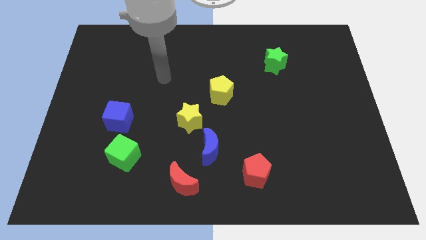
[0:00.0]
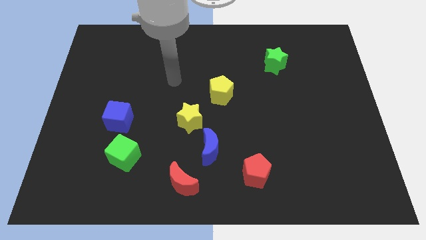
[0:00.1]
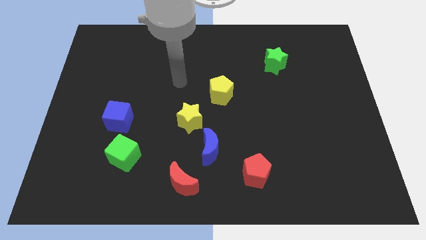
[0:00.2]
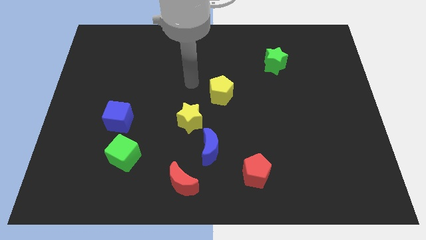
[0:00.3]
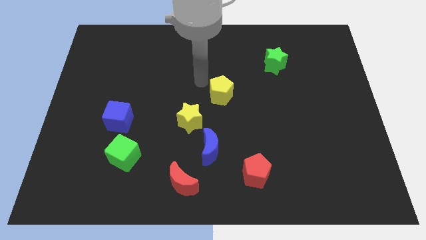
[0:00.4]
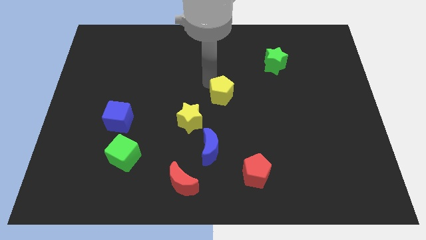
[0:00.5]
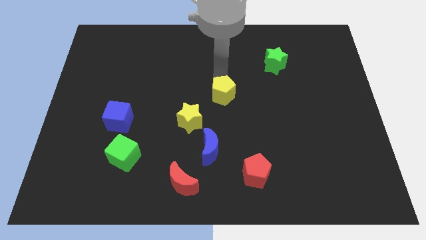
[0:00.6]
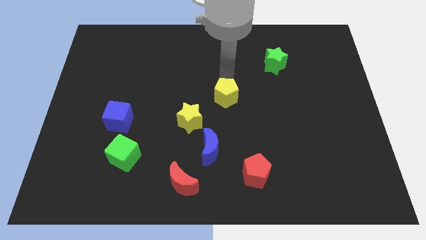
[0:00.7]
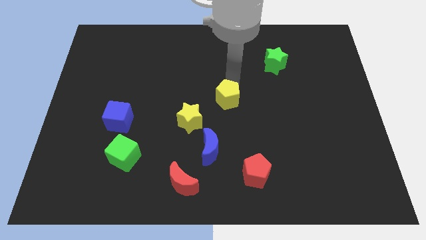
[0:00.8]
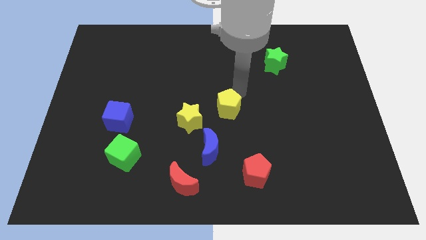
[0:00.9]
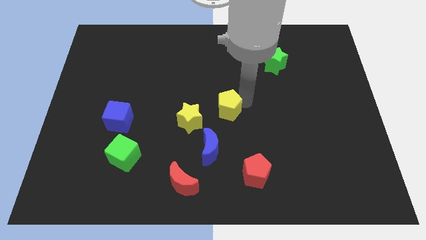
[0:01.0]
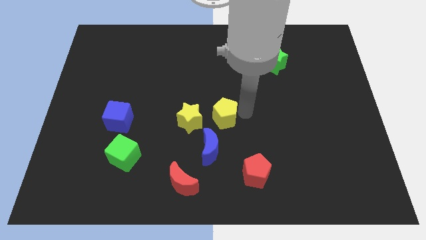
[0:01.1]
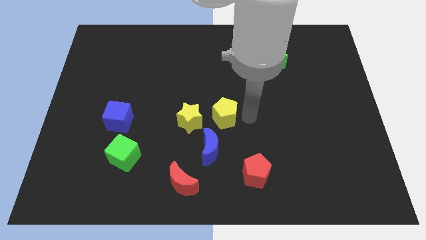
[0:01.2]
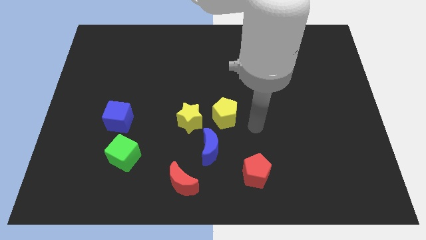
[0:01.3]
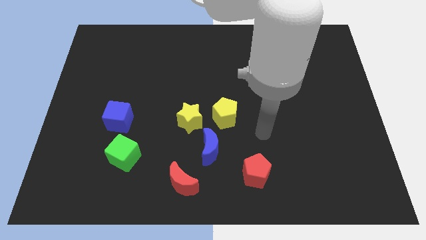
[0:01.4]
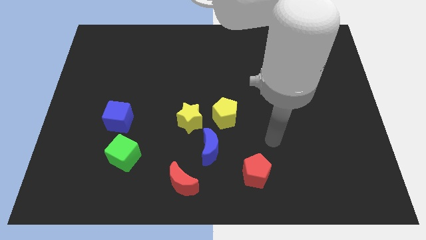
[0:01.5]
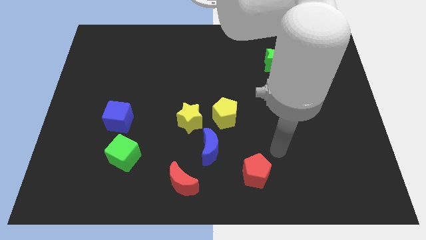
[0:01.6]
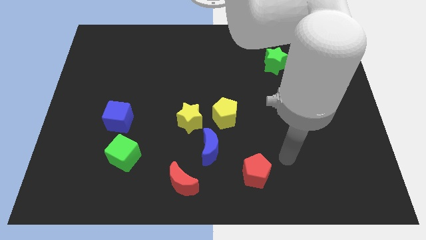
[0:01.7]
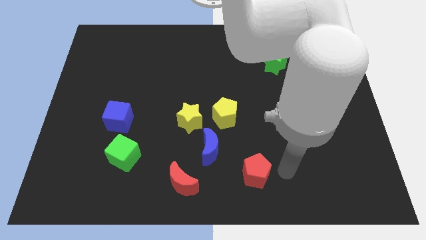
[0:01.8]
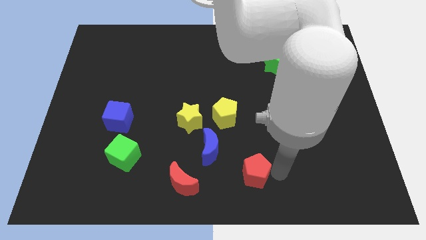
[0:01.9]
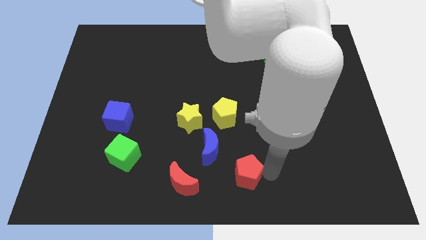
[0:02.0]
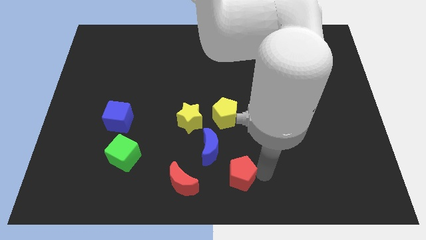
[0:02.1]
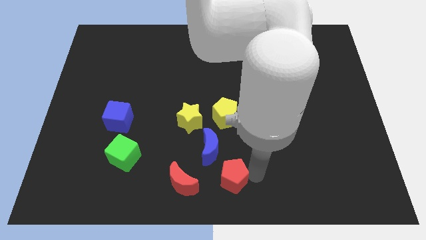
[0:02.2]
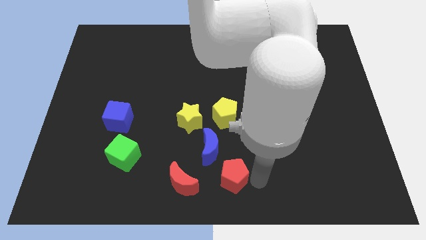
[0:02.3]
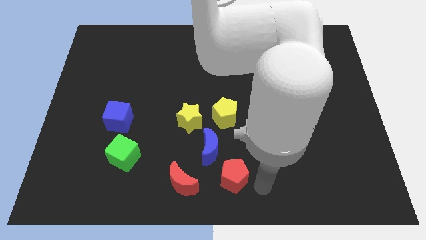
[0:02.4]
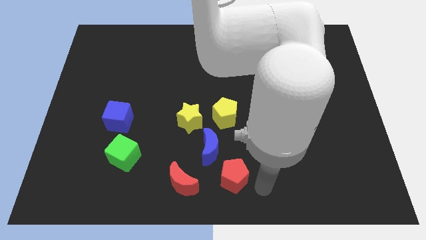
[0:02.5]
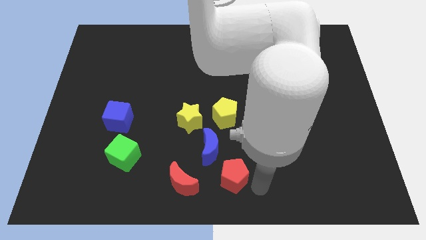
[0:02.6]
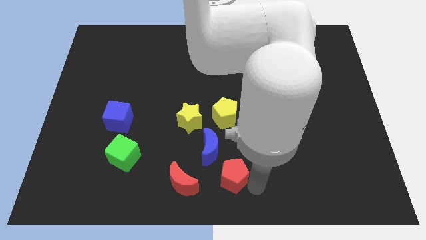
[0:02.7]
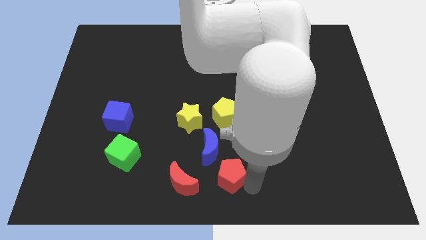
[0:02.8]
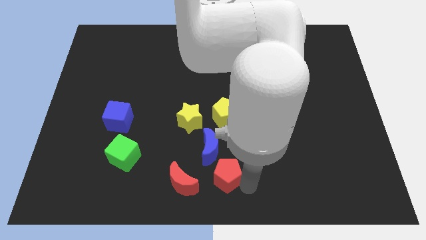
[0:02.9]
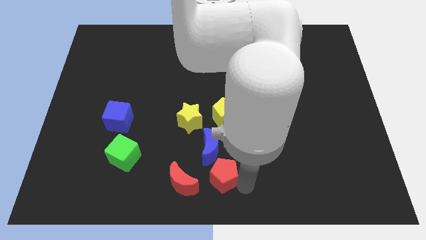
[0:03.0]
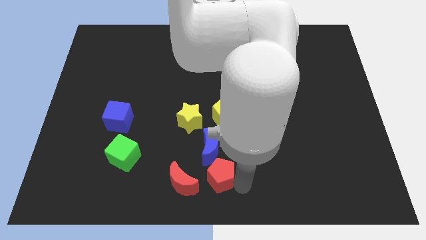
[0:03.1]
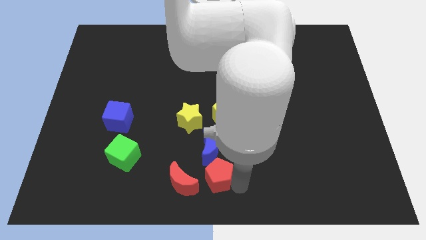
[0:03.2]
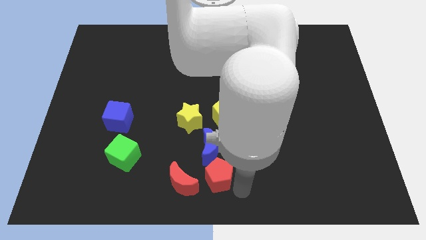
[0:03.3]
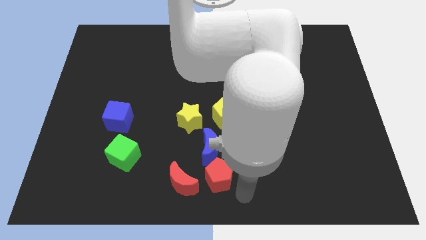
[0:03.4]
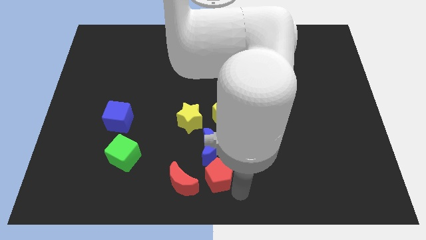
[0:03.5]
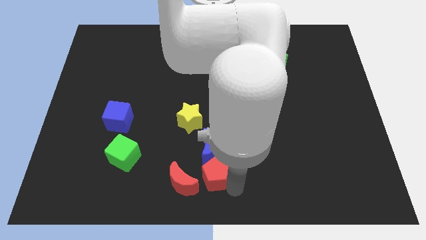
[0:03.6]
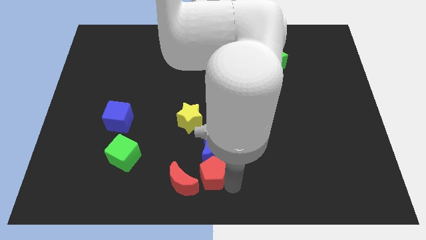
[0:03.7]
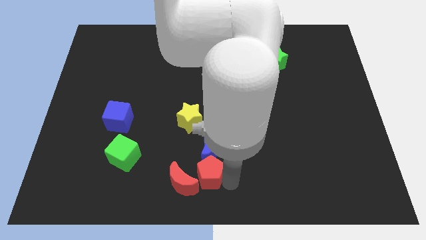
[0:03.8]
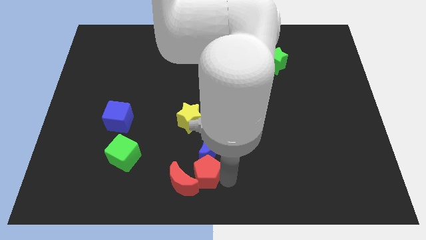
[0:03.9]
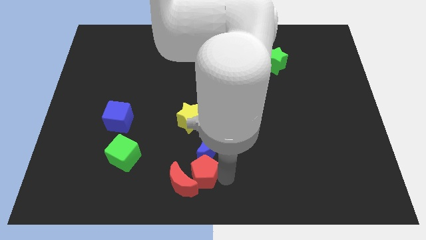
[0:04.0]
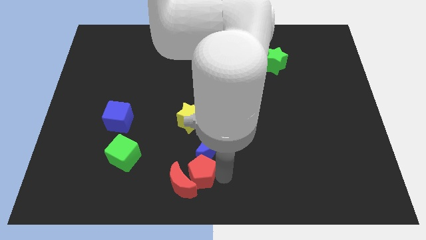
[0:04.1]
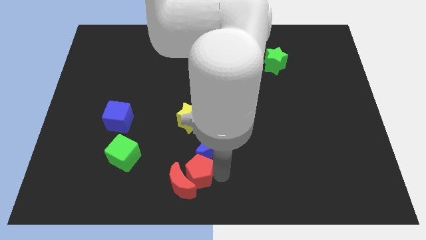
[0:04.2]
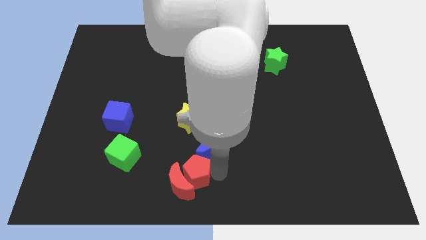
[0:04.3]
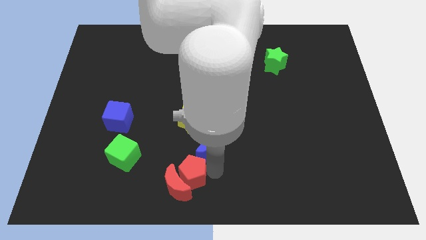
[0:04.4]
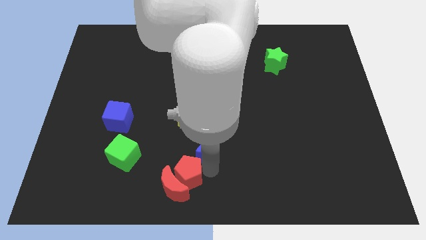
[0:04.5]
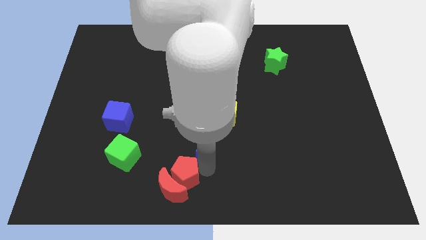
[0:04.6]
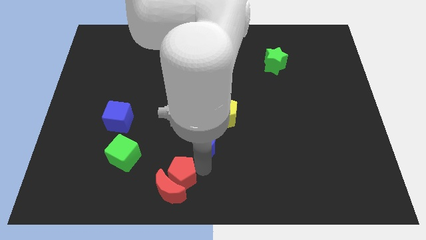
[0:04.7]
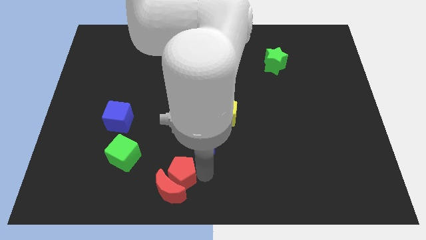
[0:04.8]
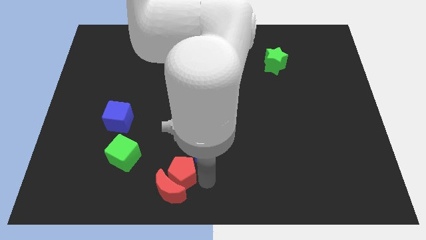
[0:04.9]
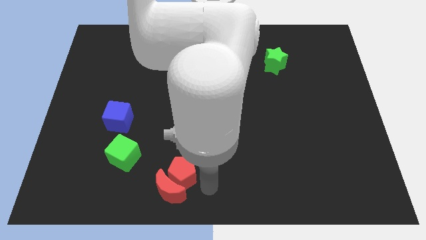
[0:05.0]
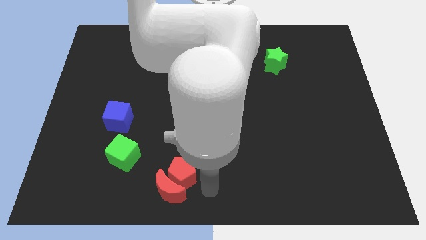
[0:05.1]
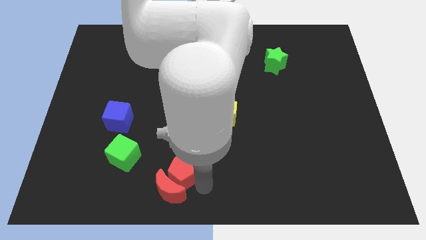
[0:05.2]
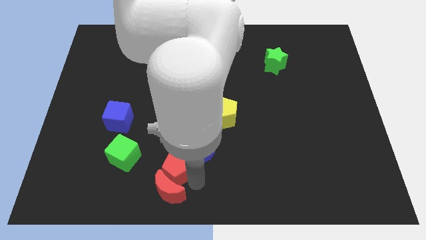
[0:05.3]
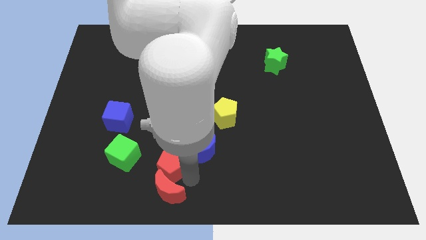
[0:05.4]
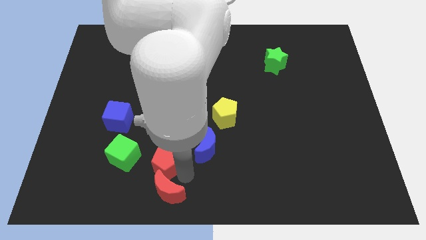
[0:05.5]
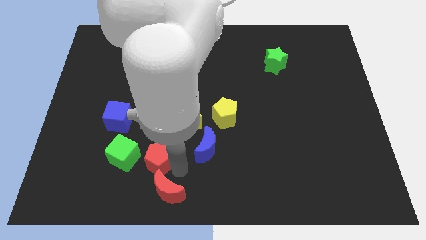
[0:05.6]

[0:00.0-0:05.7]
push the red pentagon left

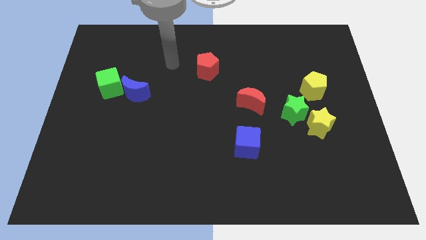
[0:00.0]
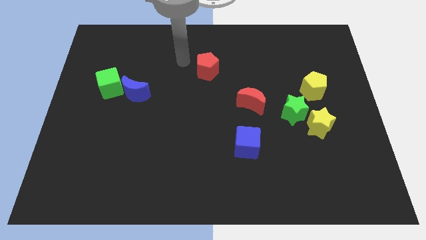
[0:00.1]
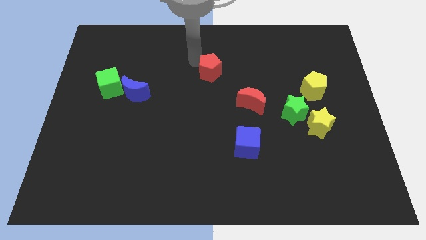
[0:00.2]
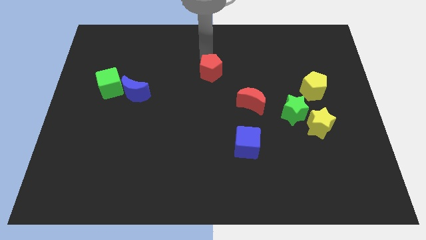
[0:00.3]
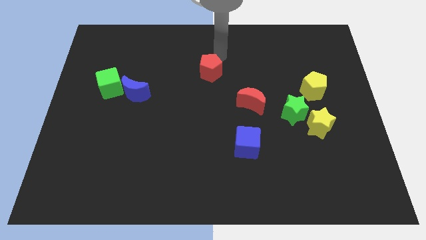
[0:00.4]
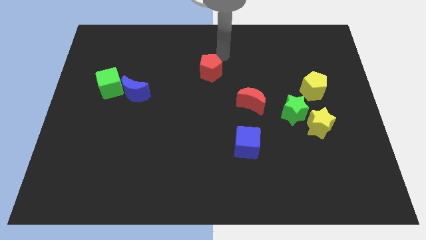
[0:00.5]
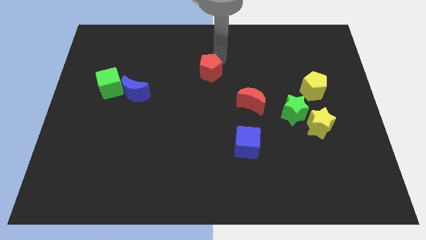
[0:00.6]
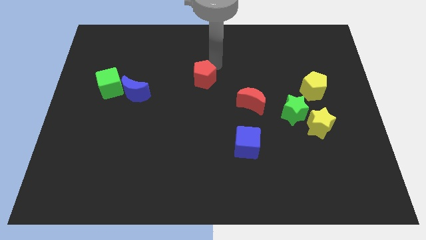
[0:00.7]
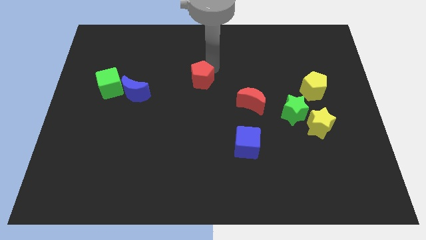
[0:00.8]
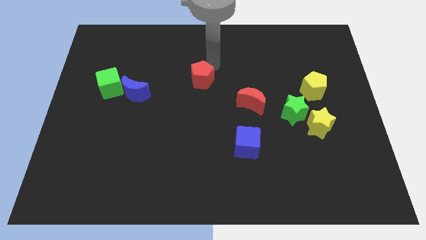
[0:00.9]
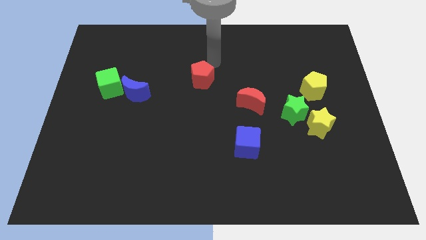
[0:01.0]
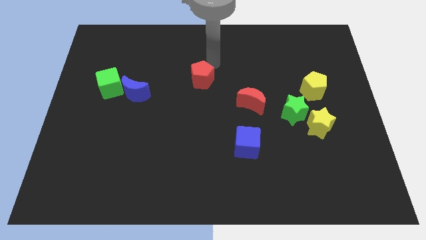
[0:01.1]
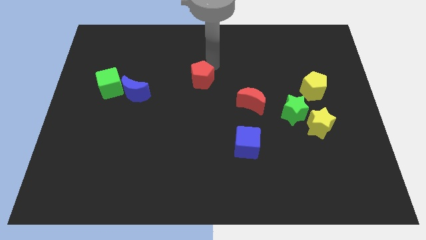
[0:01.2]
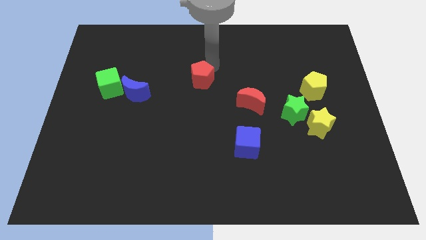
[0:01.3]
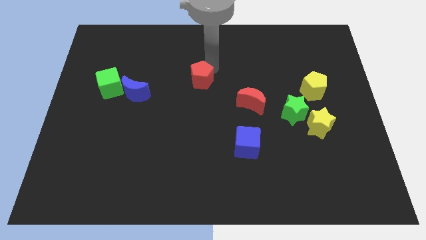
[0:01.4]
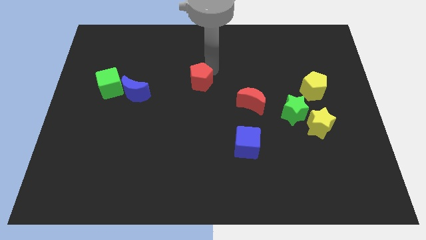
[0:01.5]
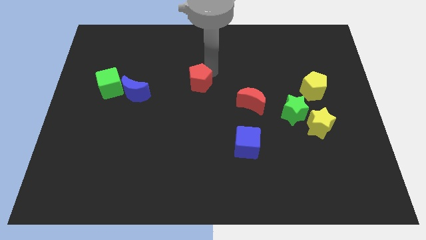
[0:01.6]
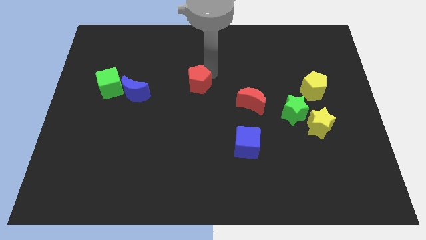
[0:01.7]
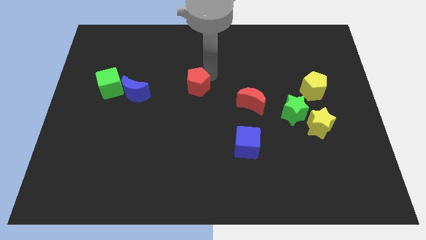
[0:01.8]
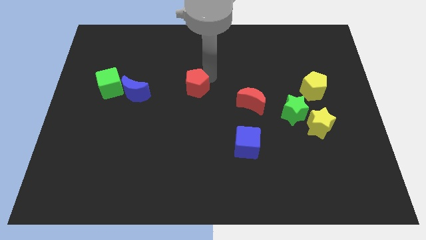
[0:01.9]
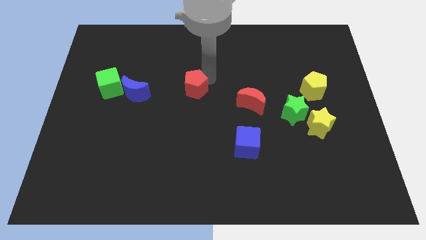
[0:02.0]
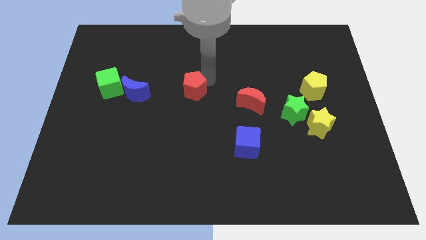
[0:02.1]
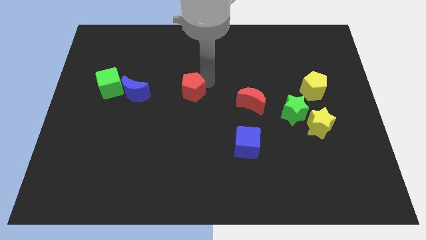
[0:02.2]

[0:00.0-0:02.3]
move the red pentagon a bit downwards and to the left diagonally

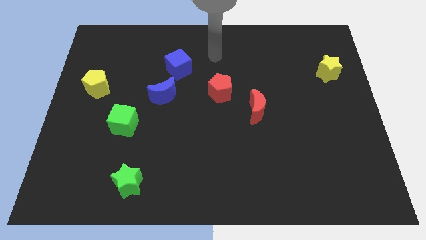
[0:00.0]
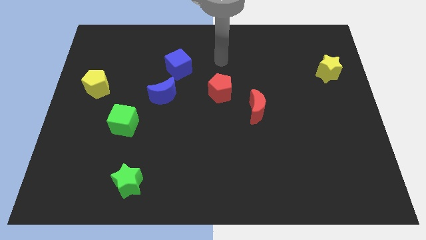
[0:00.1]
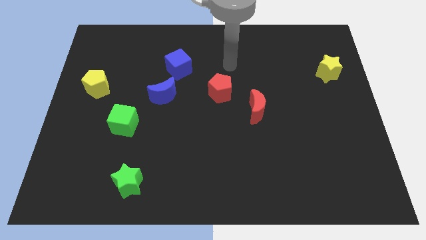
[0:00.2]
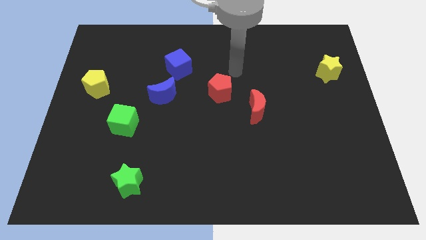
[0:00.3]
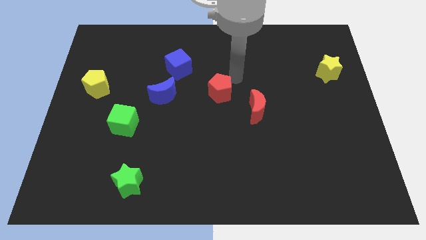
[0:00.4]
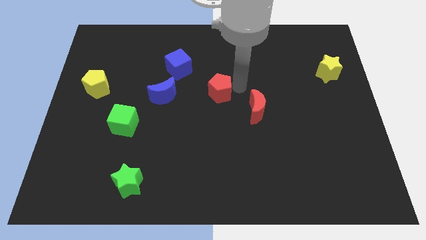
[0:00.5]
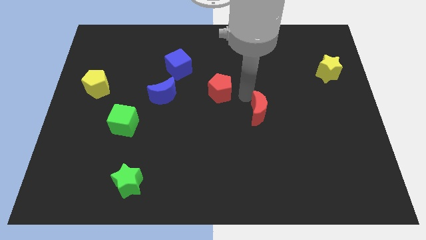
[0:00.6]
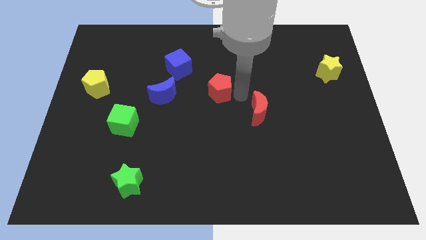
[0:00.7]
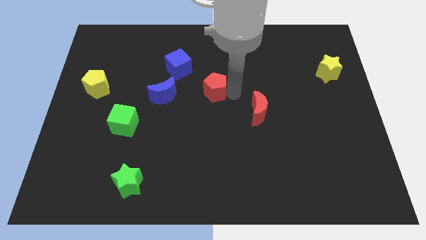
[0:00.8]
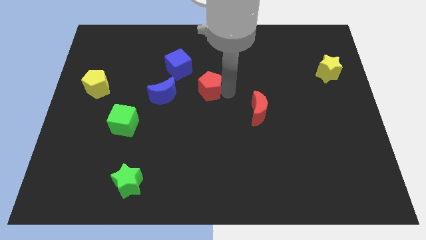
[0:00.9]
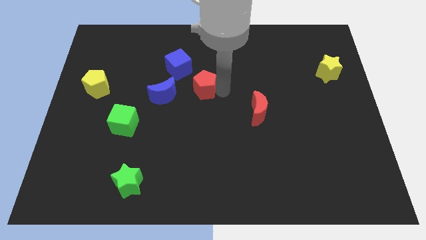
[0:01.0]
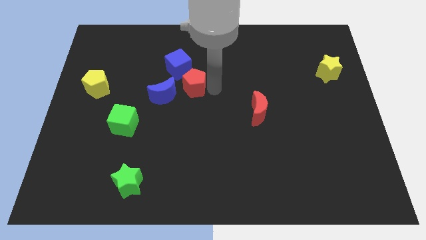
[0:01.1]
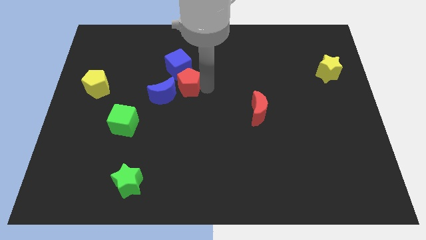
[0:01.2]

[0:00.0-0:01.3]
slide the red pentagon a bit left
